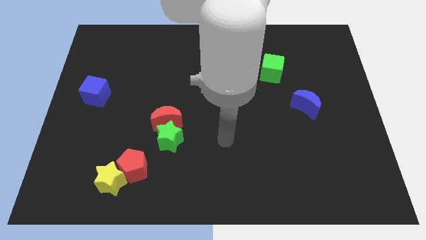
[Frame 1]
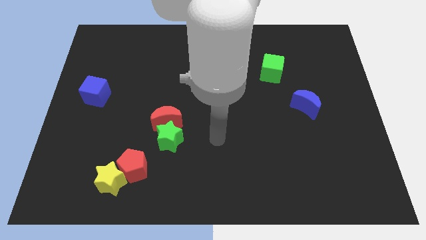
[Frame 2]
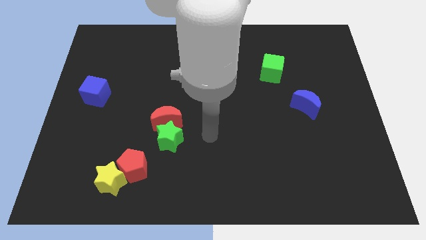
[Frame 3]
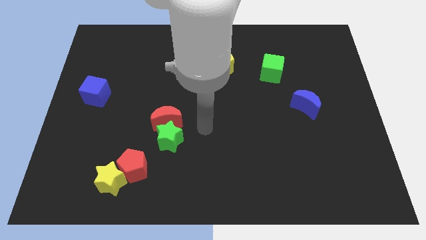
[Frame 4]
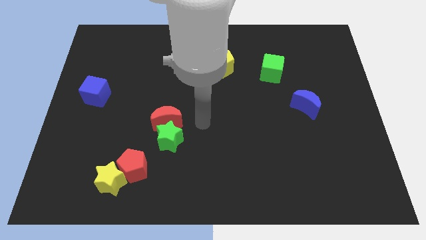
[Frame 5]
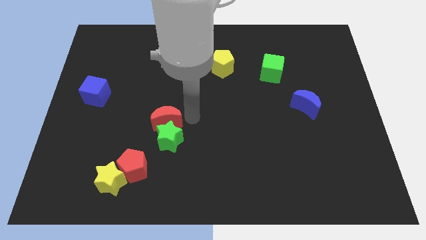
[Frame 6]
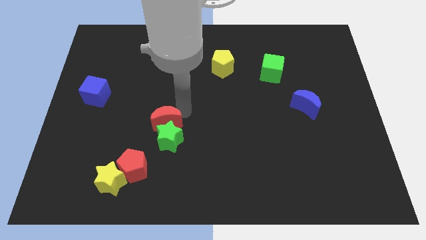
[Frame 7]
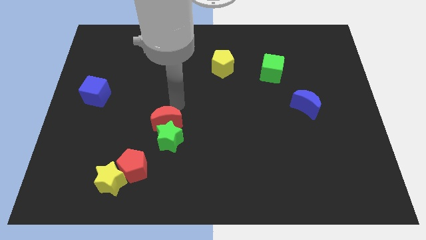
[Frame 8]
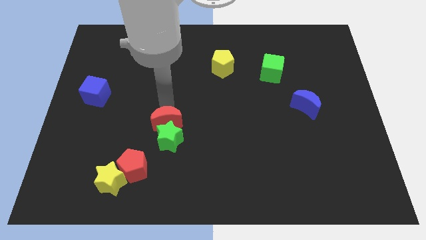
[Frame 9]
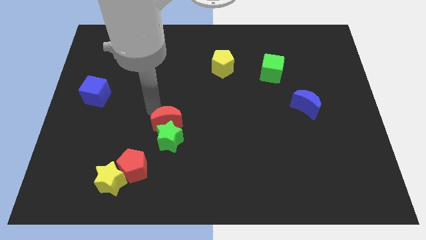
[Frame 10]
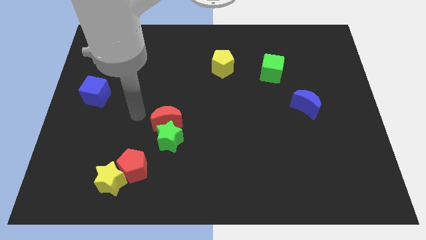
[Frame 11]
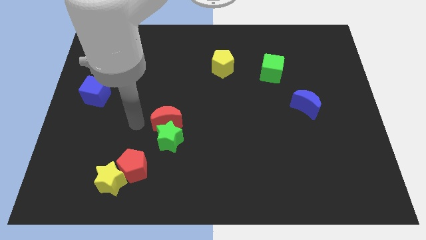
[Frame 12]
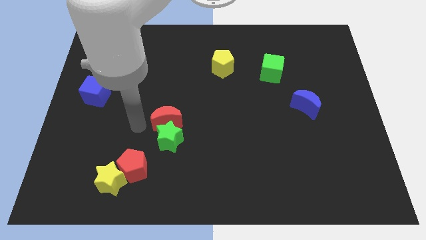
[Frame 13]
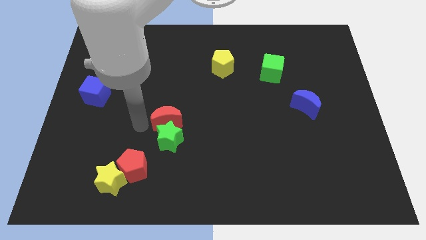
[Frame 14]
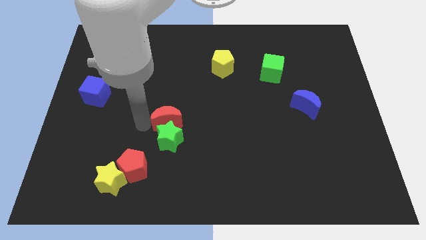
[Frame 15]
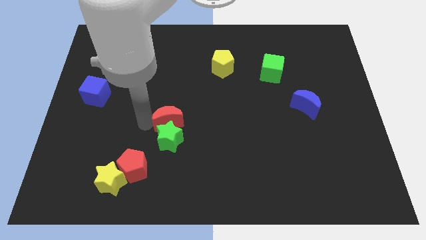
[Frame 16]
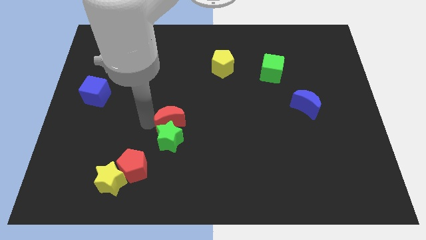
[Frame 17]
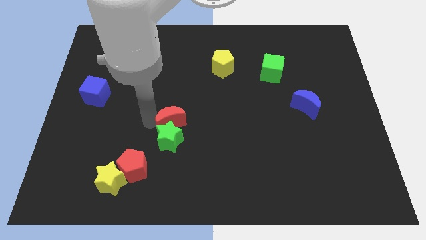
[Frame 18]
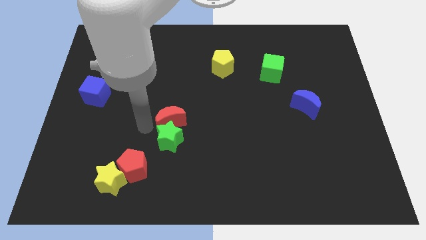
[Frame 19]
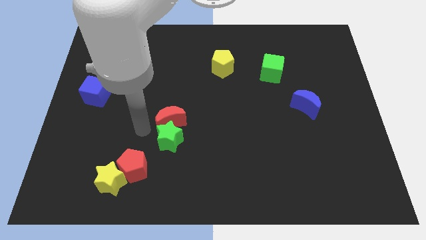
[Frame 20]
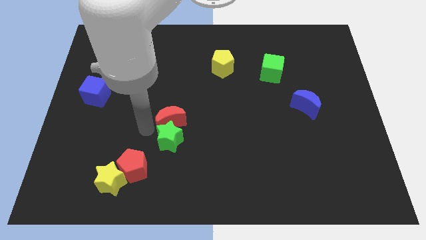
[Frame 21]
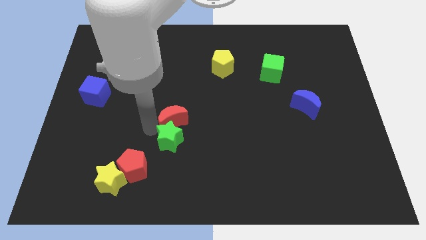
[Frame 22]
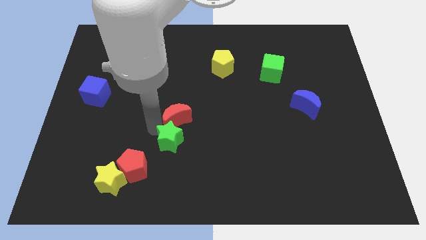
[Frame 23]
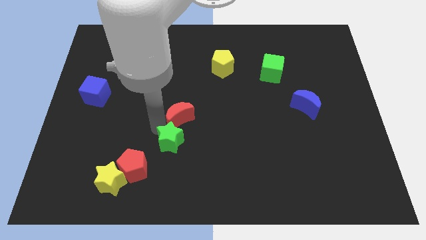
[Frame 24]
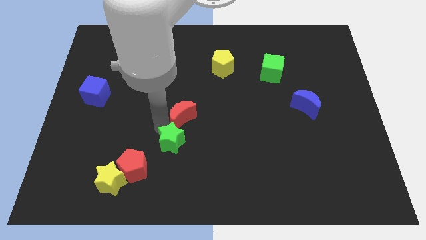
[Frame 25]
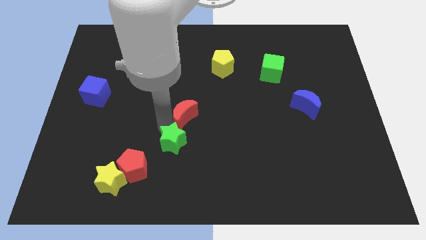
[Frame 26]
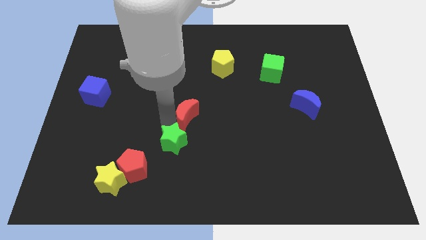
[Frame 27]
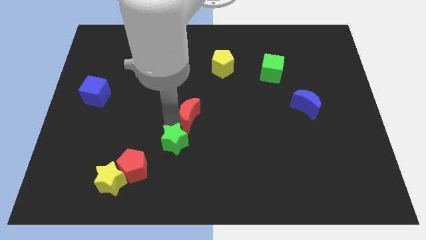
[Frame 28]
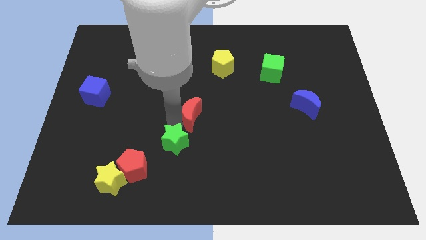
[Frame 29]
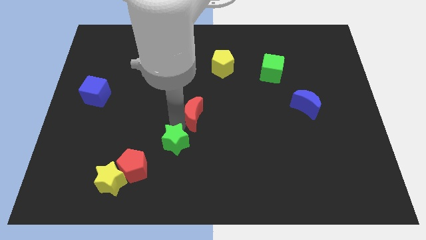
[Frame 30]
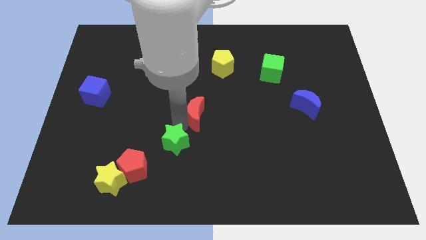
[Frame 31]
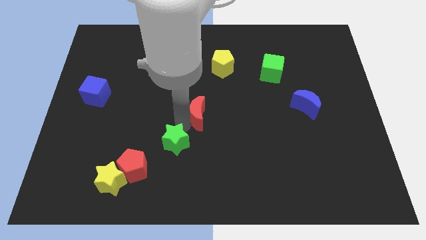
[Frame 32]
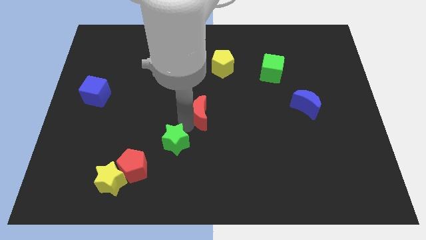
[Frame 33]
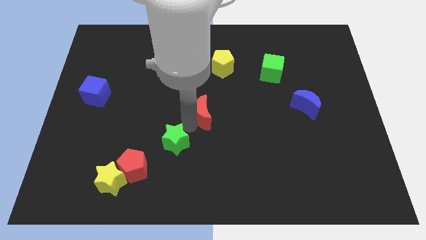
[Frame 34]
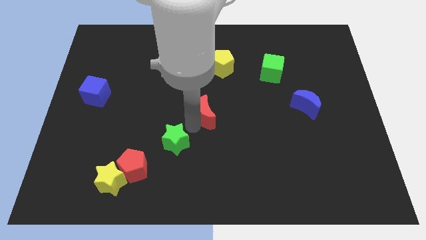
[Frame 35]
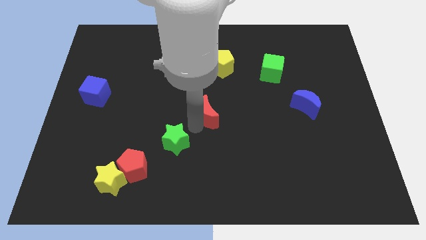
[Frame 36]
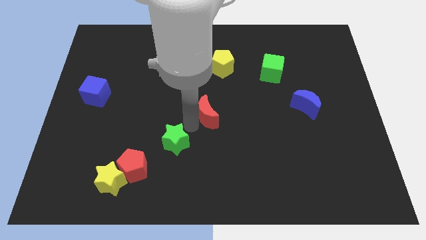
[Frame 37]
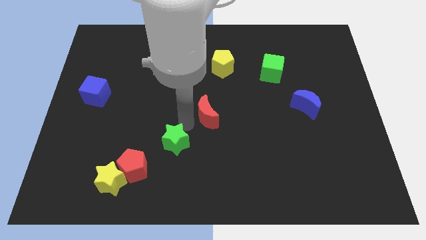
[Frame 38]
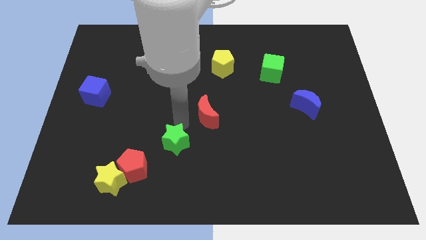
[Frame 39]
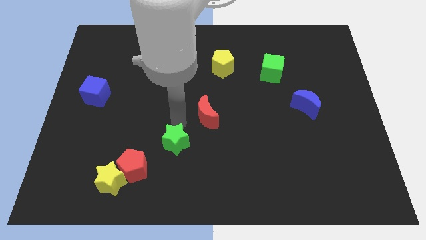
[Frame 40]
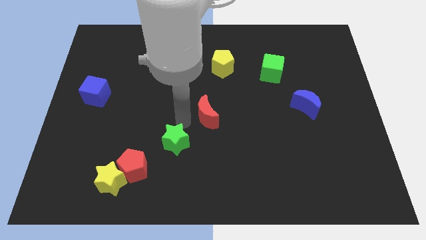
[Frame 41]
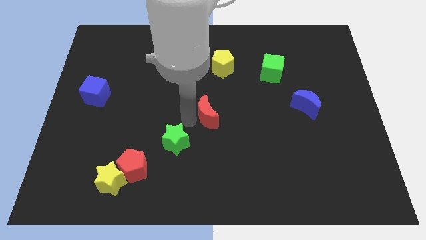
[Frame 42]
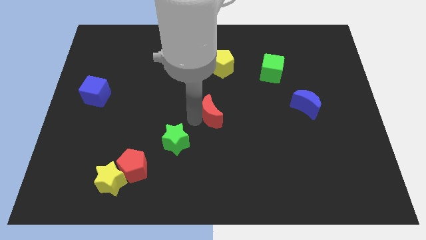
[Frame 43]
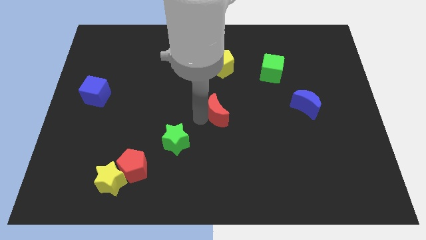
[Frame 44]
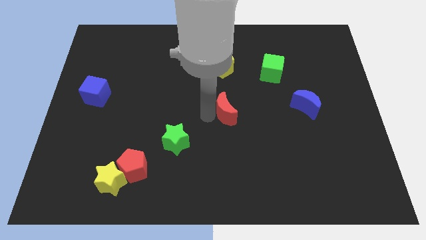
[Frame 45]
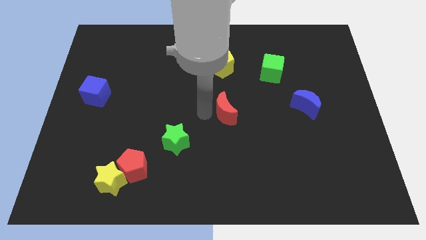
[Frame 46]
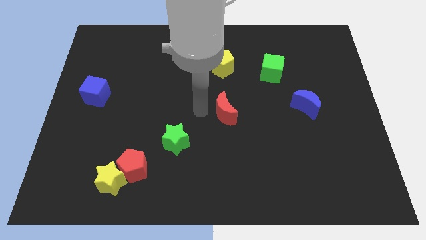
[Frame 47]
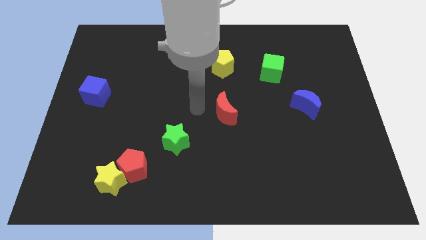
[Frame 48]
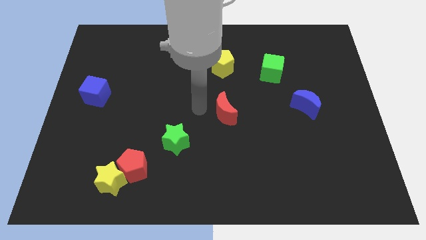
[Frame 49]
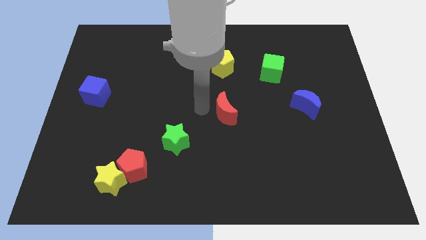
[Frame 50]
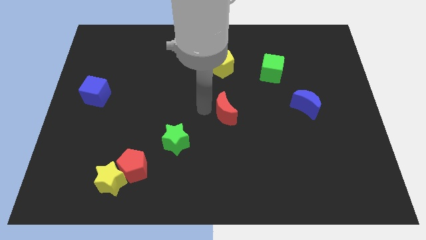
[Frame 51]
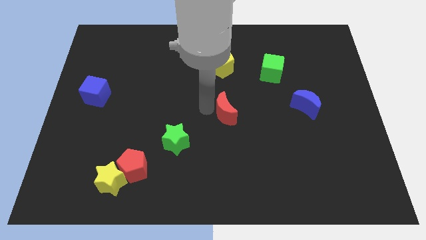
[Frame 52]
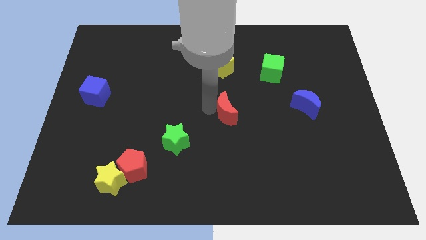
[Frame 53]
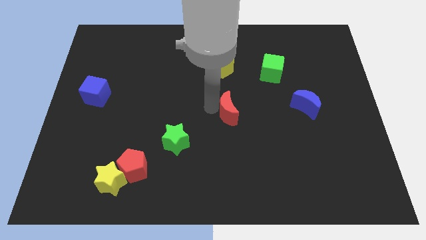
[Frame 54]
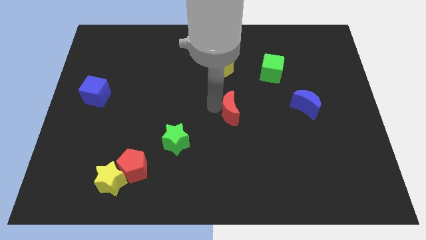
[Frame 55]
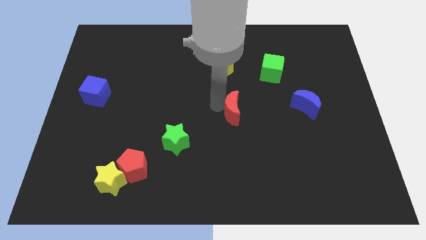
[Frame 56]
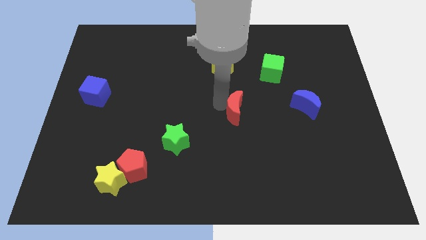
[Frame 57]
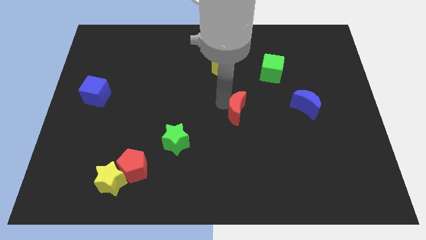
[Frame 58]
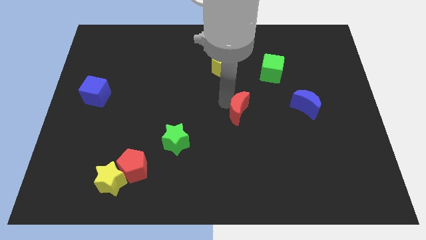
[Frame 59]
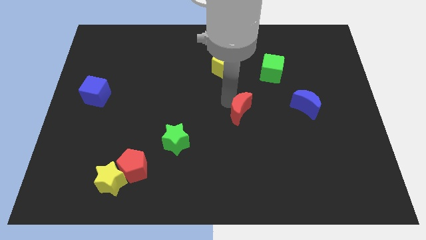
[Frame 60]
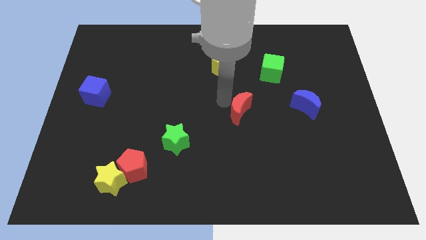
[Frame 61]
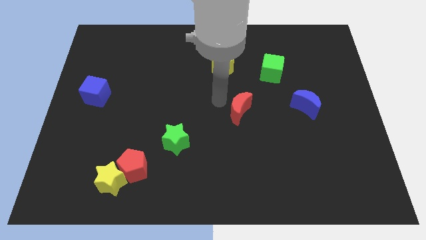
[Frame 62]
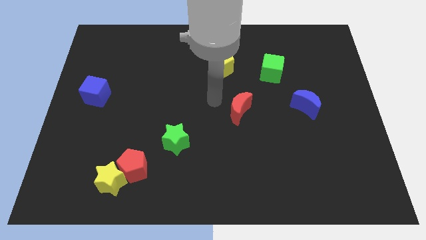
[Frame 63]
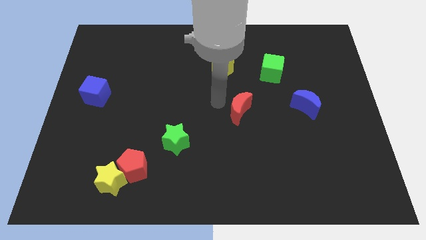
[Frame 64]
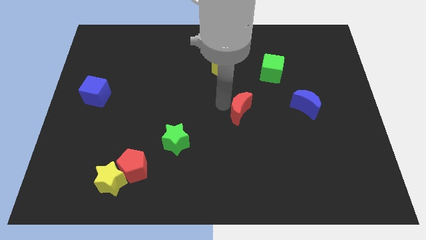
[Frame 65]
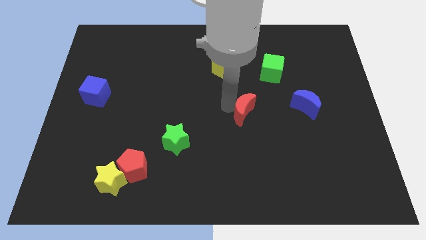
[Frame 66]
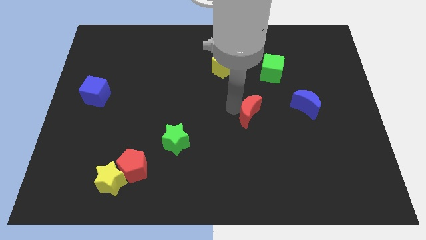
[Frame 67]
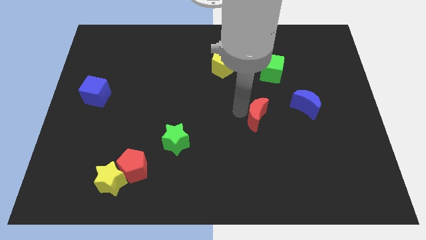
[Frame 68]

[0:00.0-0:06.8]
move the red moon right

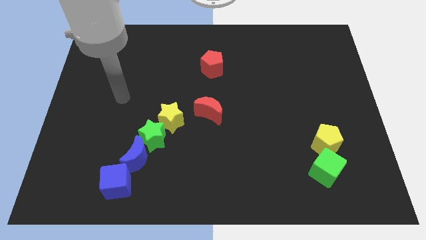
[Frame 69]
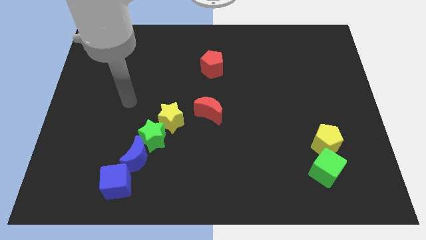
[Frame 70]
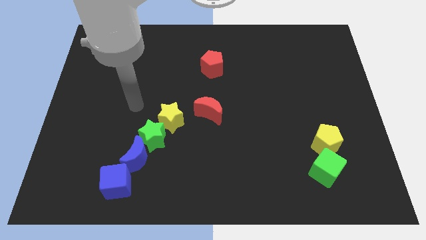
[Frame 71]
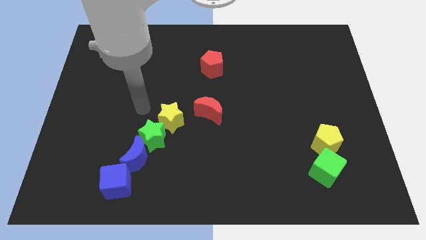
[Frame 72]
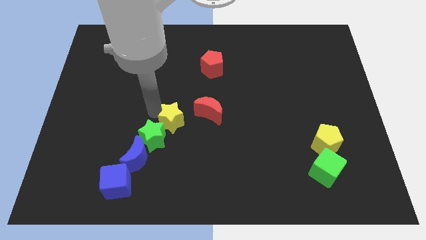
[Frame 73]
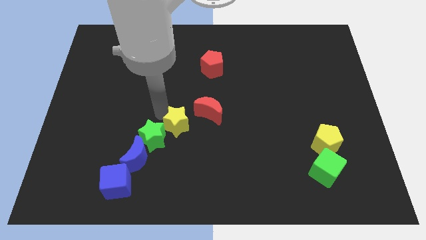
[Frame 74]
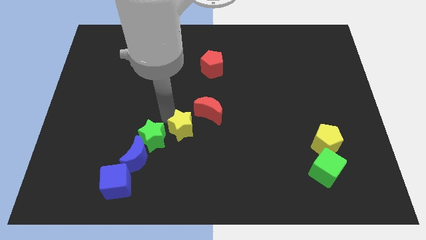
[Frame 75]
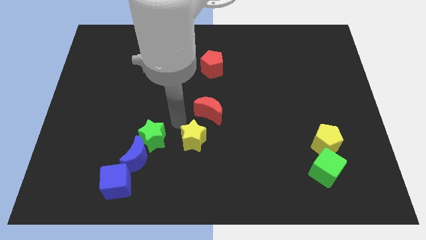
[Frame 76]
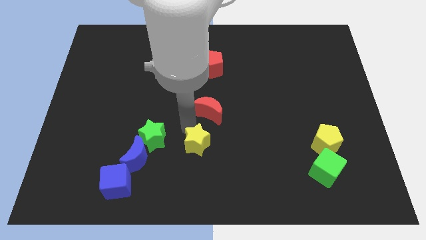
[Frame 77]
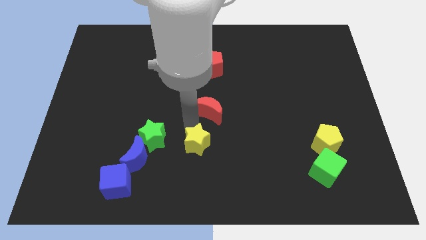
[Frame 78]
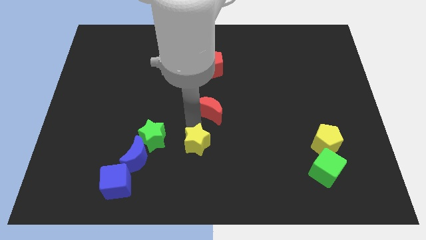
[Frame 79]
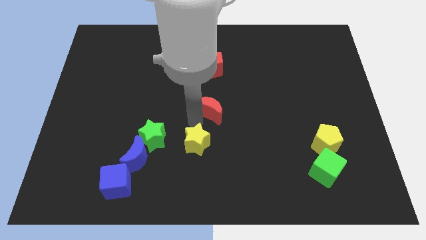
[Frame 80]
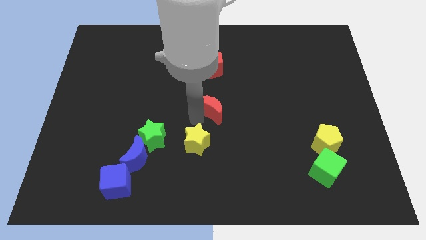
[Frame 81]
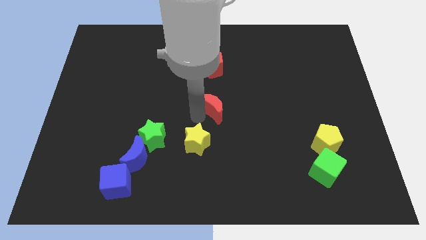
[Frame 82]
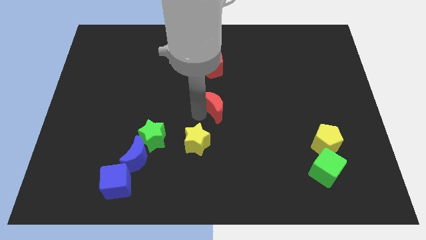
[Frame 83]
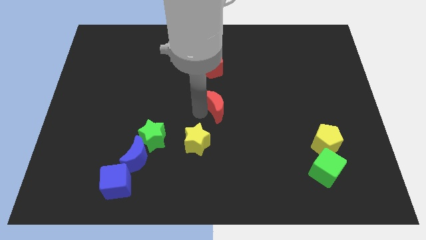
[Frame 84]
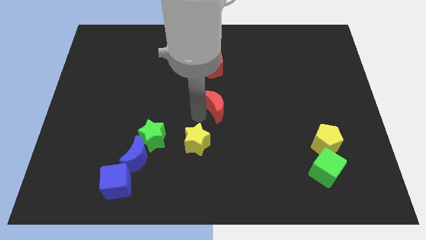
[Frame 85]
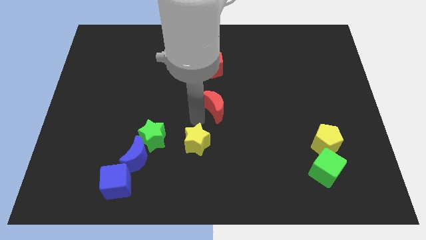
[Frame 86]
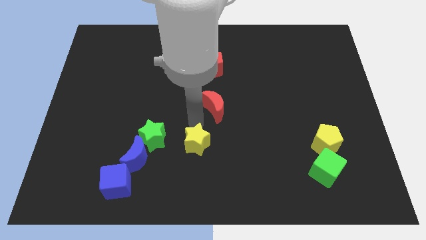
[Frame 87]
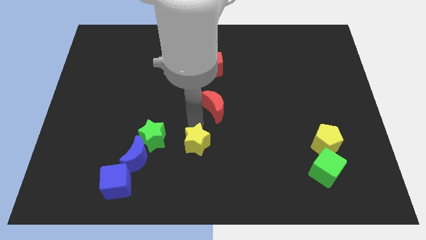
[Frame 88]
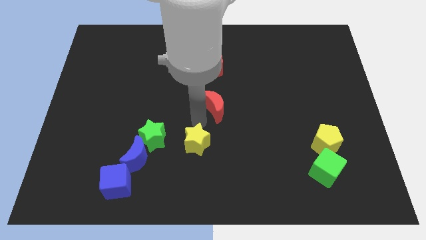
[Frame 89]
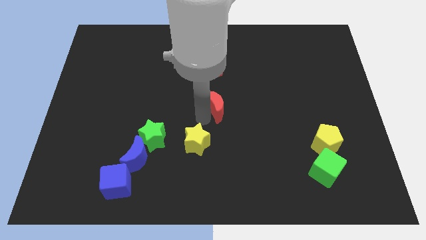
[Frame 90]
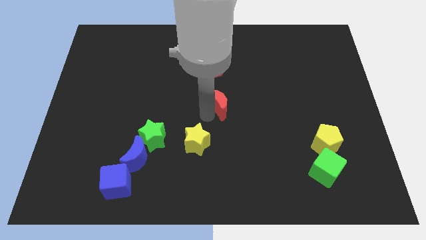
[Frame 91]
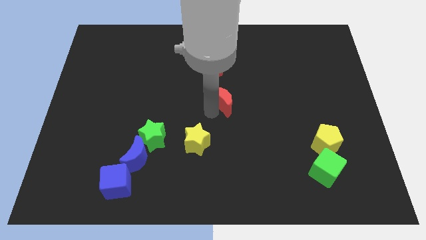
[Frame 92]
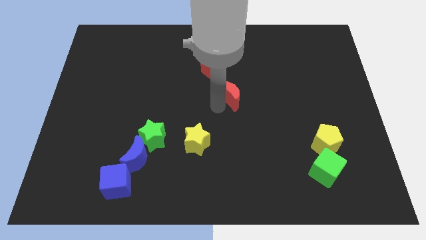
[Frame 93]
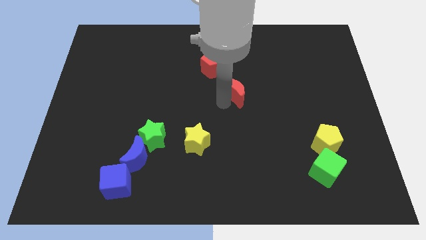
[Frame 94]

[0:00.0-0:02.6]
push the red moon a bit up and right
